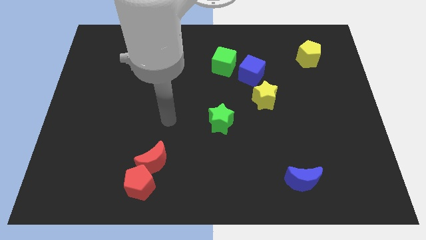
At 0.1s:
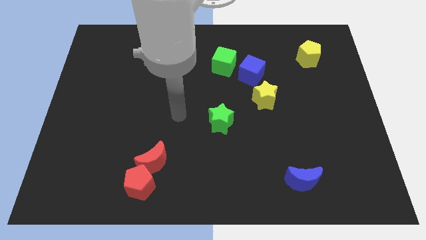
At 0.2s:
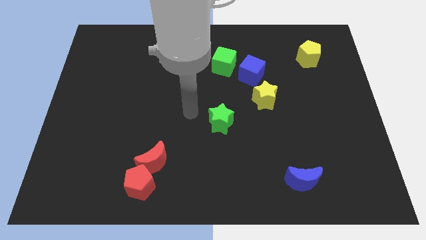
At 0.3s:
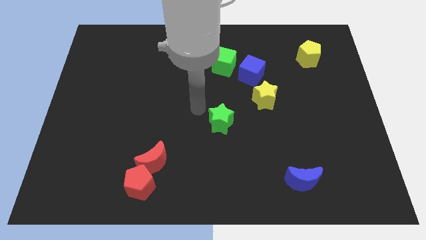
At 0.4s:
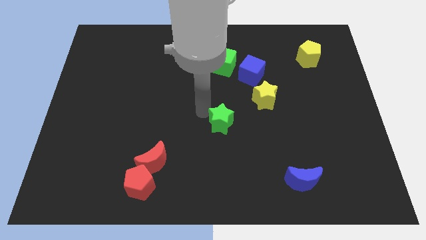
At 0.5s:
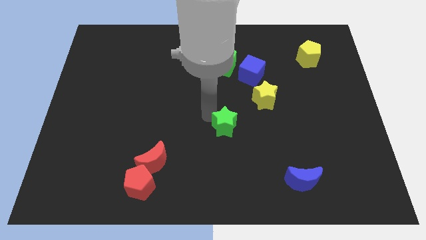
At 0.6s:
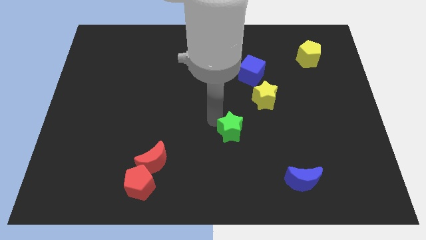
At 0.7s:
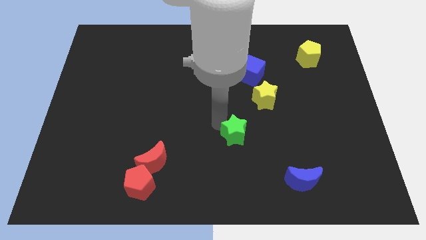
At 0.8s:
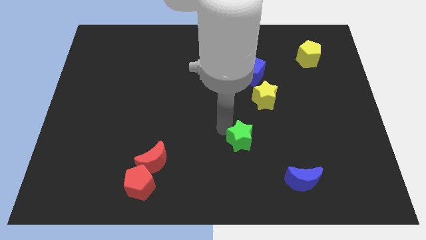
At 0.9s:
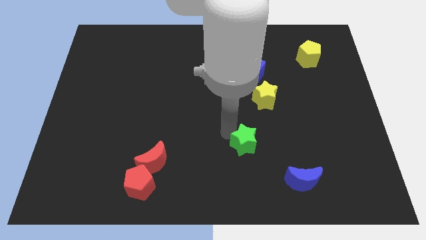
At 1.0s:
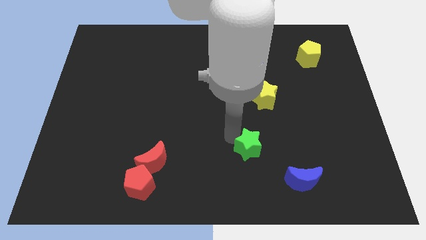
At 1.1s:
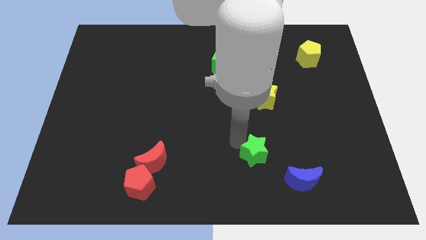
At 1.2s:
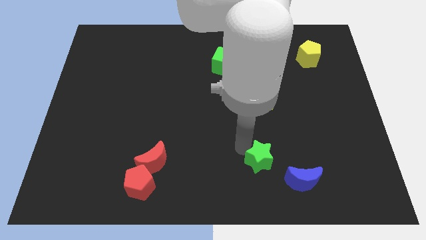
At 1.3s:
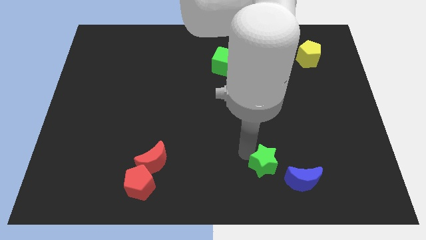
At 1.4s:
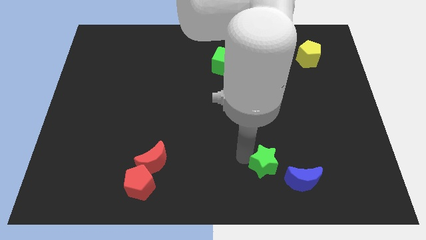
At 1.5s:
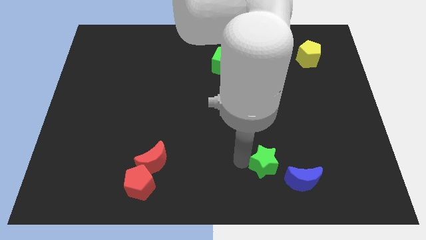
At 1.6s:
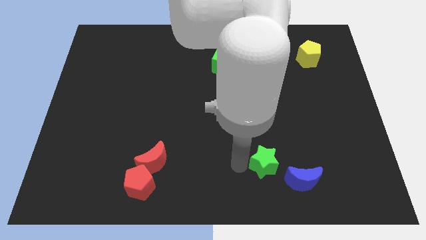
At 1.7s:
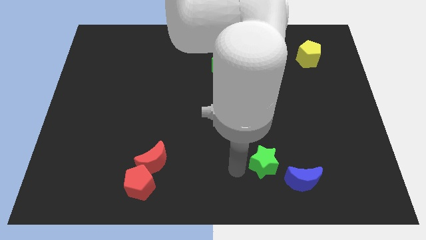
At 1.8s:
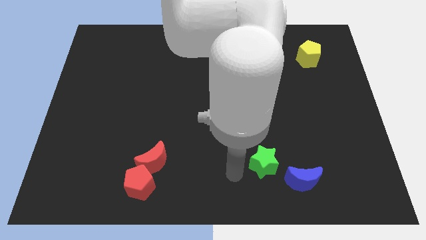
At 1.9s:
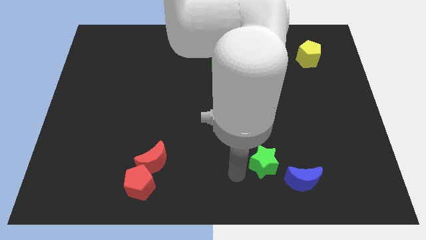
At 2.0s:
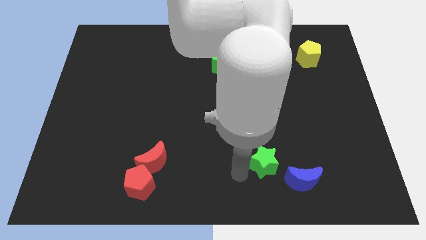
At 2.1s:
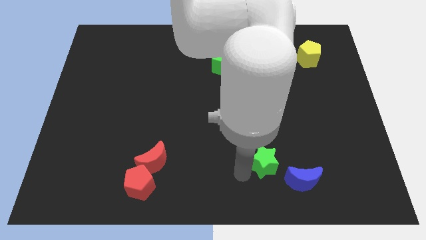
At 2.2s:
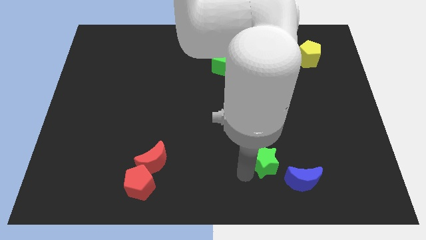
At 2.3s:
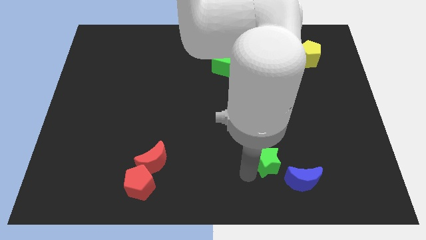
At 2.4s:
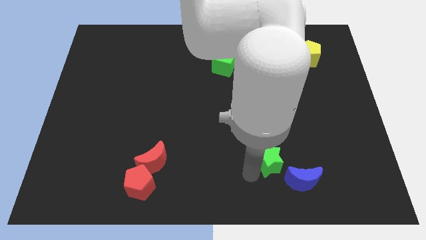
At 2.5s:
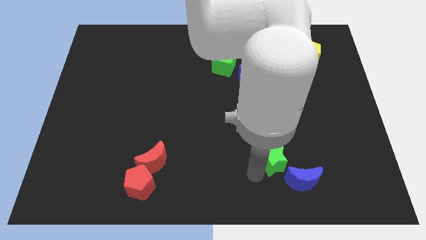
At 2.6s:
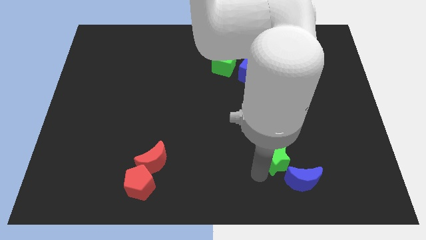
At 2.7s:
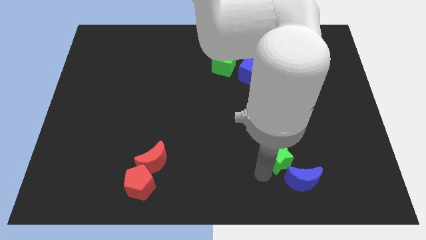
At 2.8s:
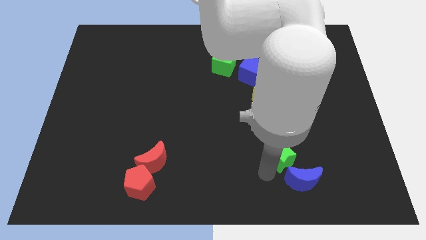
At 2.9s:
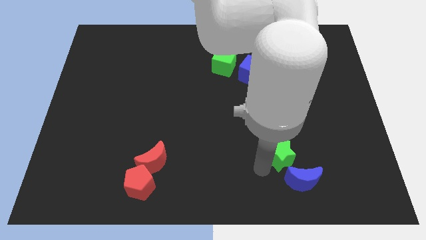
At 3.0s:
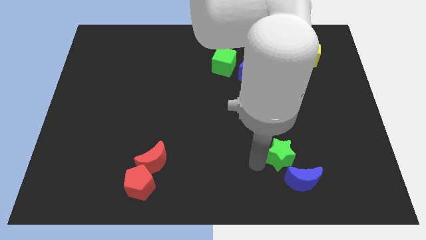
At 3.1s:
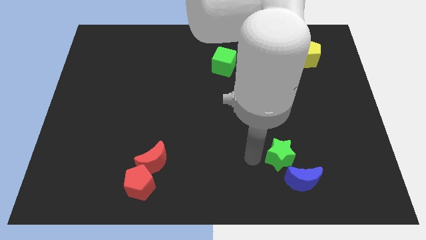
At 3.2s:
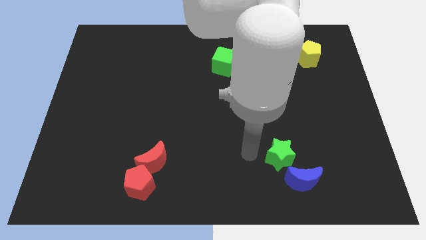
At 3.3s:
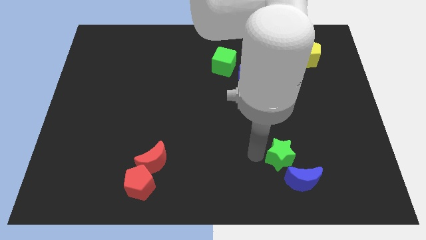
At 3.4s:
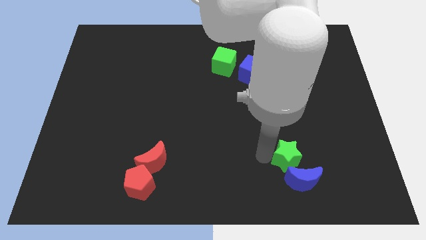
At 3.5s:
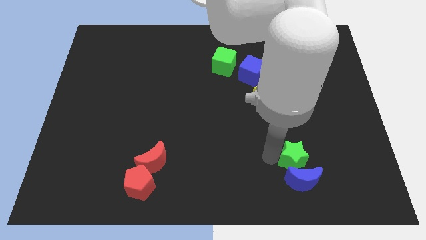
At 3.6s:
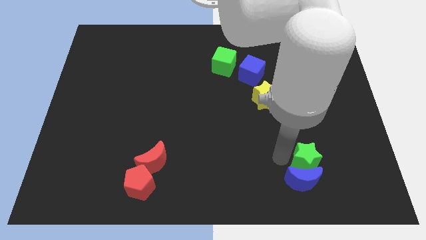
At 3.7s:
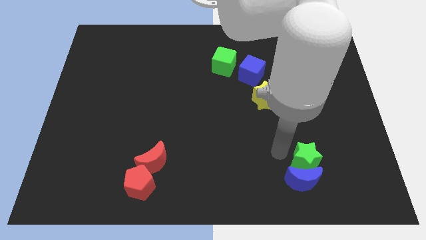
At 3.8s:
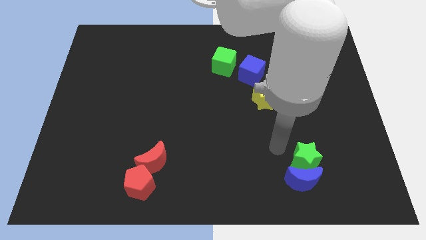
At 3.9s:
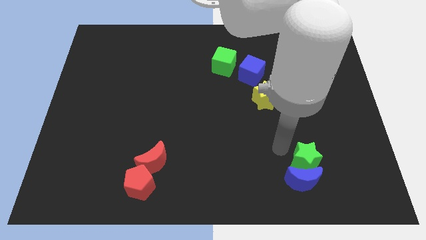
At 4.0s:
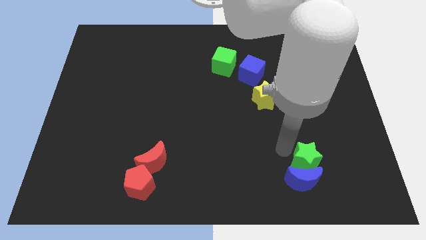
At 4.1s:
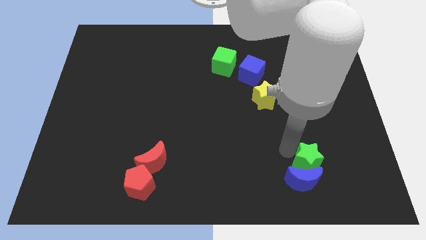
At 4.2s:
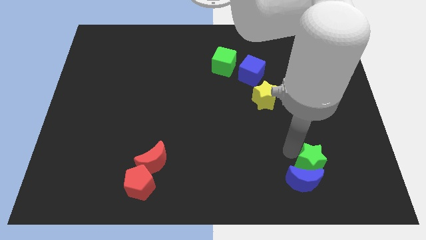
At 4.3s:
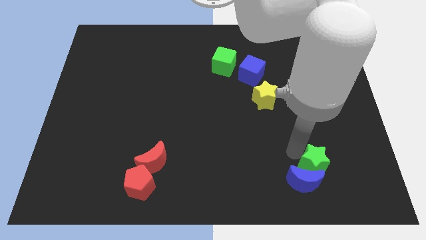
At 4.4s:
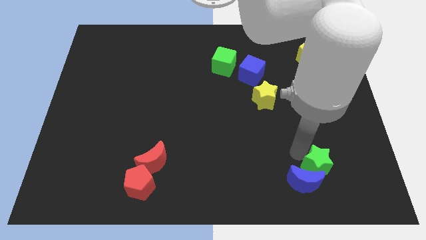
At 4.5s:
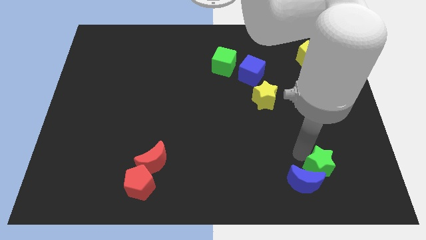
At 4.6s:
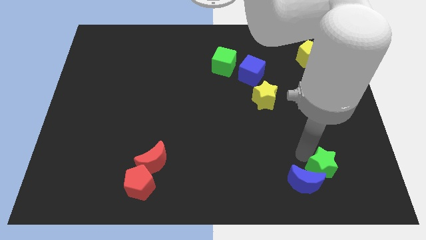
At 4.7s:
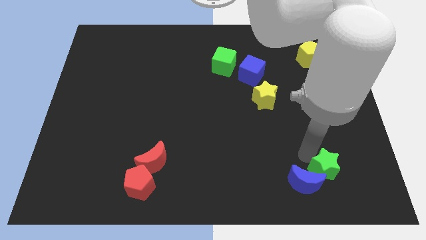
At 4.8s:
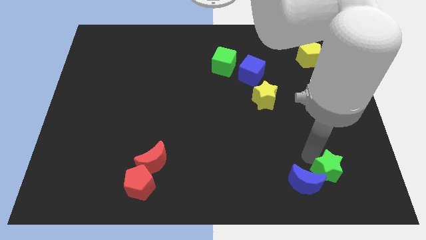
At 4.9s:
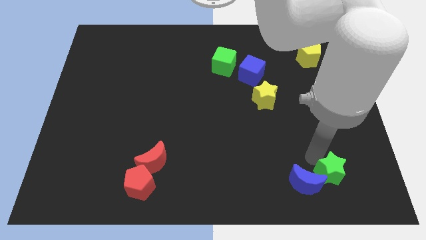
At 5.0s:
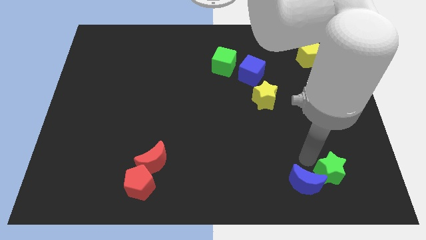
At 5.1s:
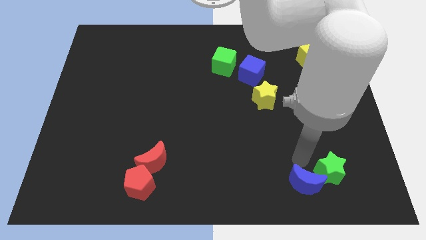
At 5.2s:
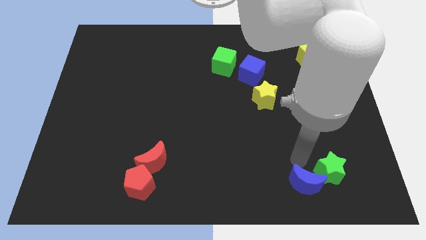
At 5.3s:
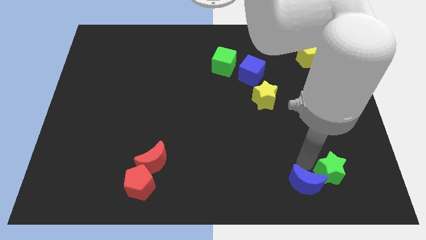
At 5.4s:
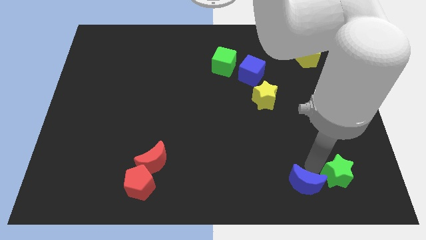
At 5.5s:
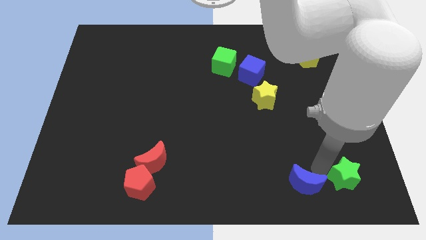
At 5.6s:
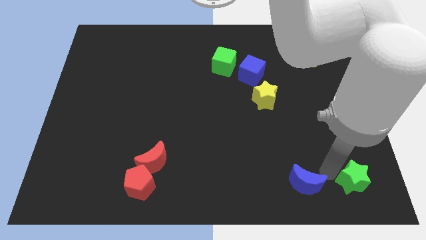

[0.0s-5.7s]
put the green star to the bottom right

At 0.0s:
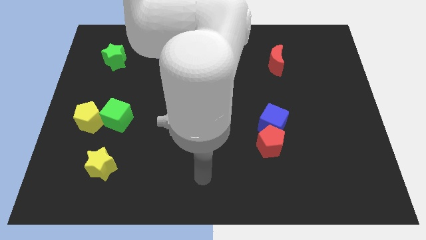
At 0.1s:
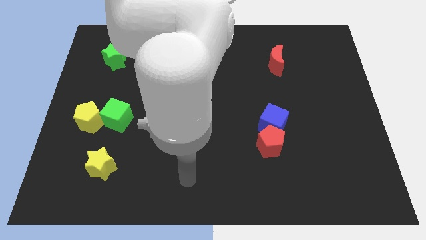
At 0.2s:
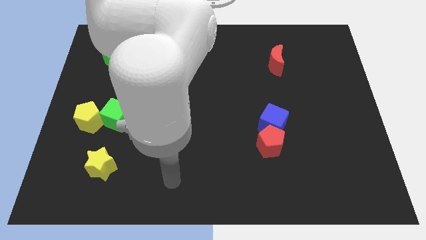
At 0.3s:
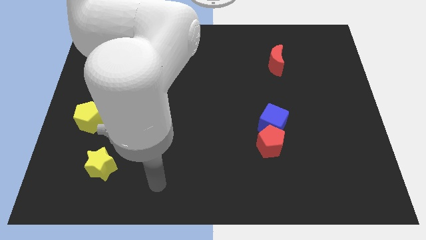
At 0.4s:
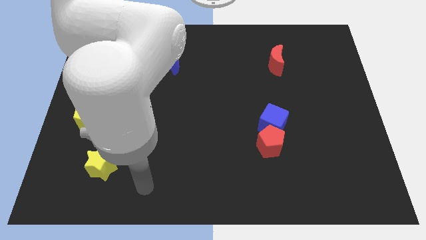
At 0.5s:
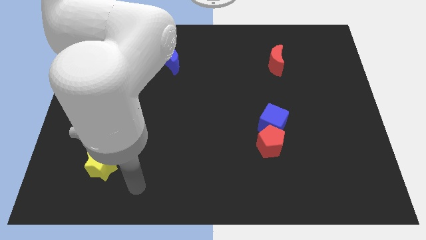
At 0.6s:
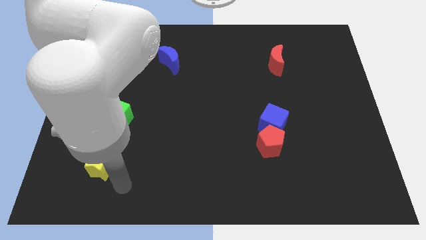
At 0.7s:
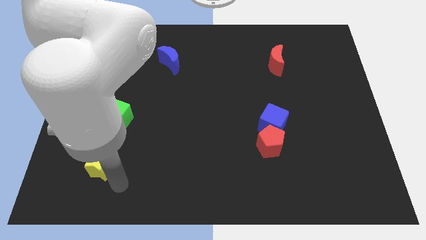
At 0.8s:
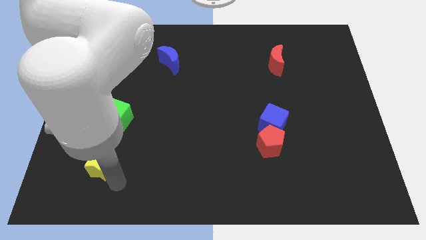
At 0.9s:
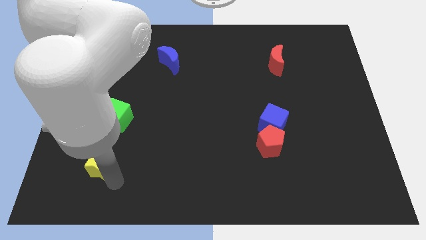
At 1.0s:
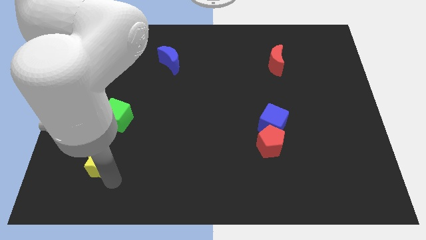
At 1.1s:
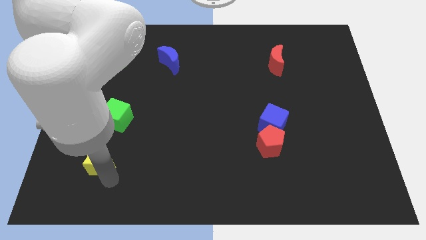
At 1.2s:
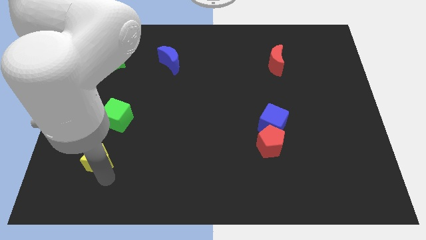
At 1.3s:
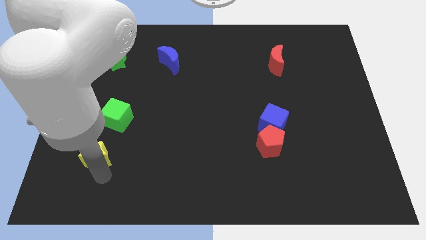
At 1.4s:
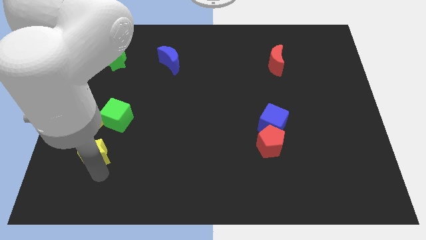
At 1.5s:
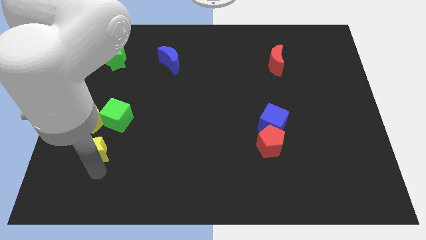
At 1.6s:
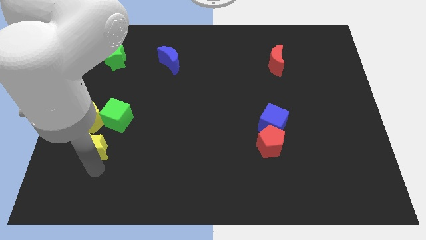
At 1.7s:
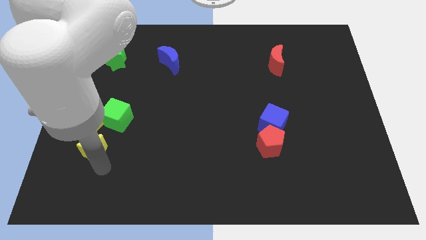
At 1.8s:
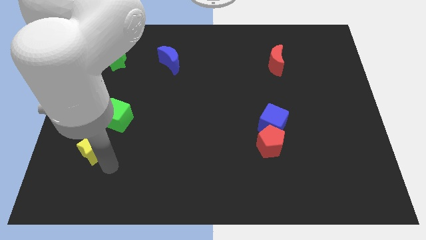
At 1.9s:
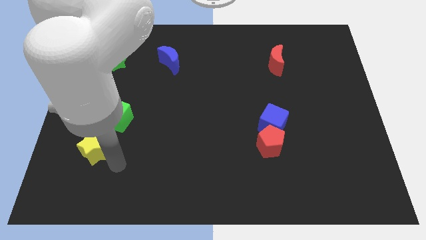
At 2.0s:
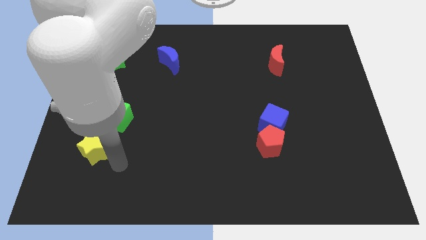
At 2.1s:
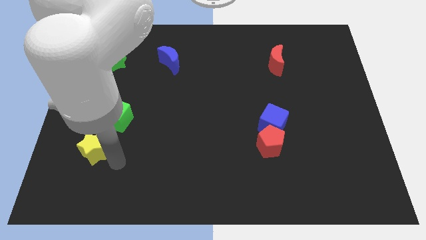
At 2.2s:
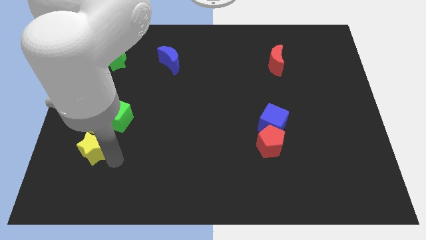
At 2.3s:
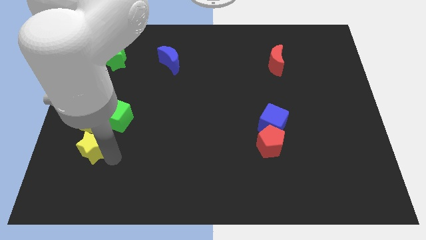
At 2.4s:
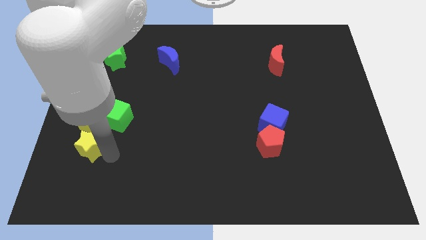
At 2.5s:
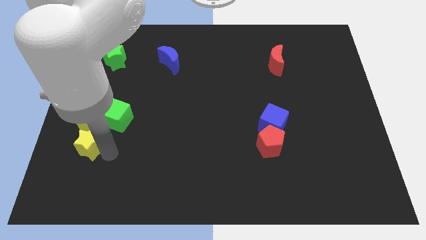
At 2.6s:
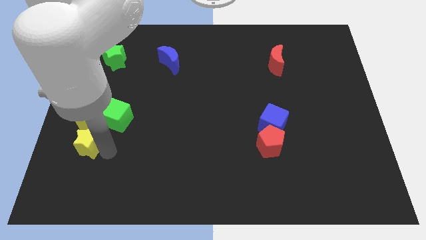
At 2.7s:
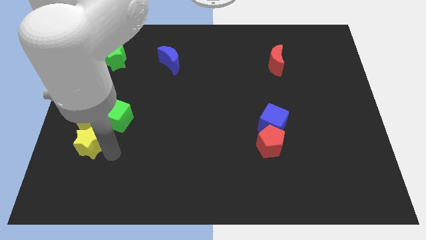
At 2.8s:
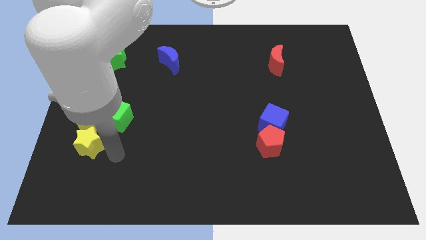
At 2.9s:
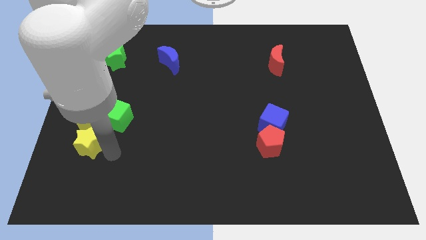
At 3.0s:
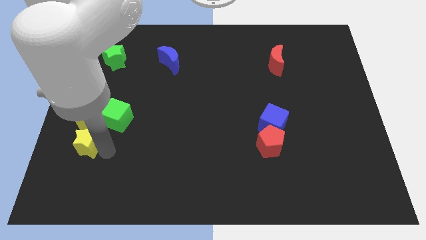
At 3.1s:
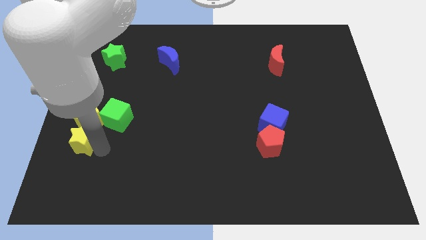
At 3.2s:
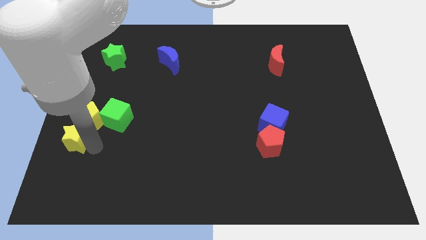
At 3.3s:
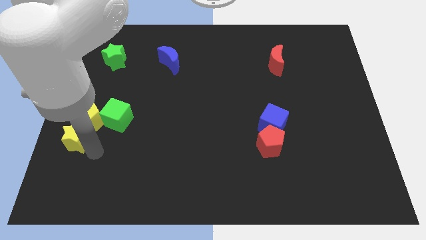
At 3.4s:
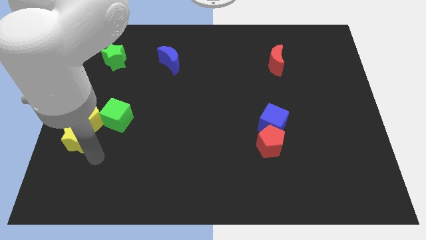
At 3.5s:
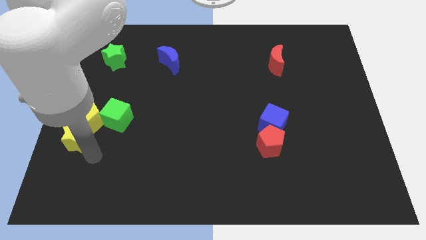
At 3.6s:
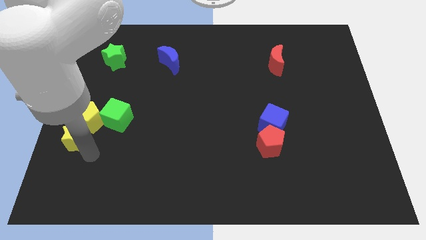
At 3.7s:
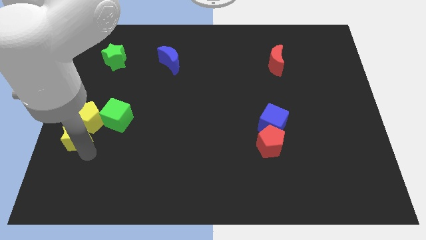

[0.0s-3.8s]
move the yellow star to the center left
